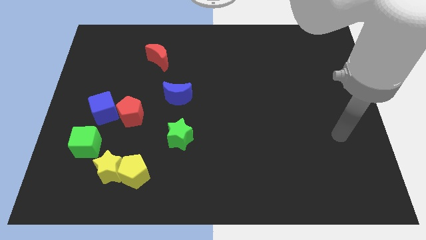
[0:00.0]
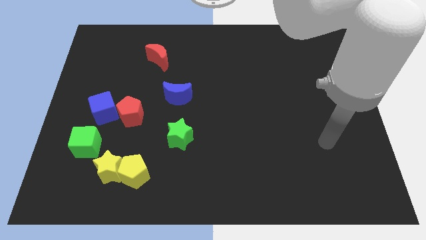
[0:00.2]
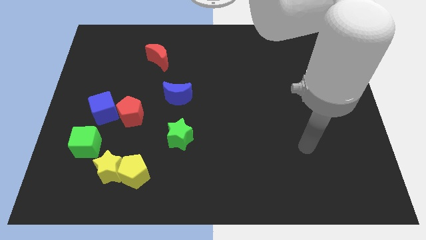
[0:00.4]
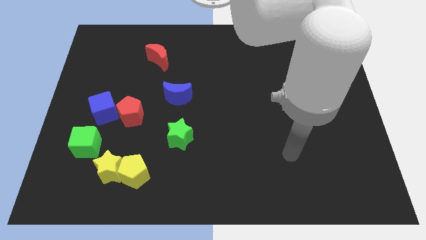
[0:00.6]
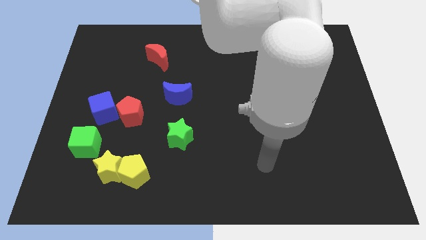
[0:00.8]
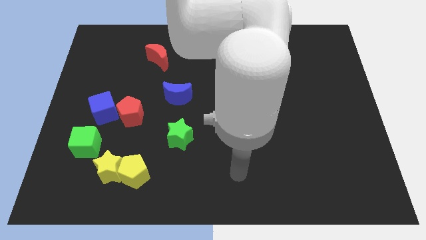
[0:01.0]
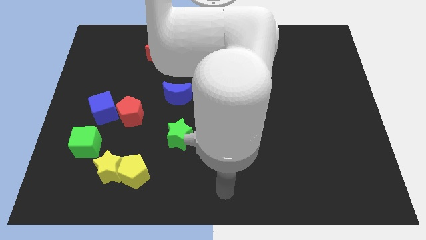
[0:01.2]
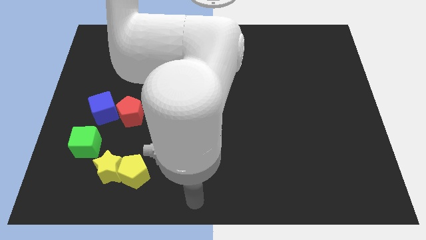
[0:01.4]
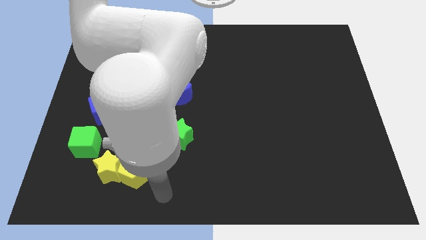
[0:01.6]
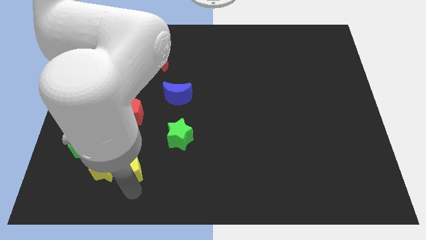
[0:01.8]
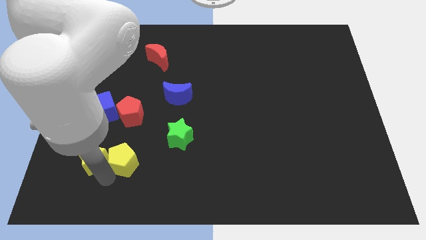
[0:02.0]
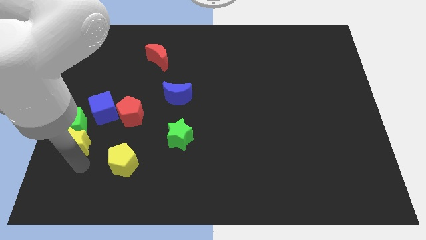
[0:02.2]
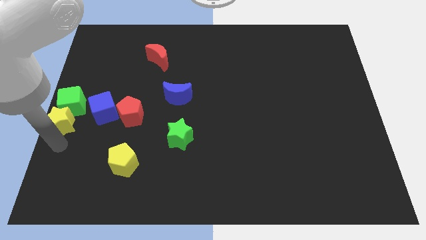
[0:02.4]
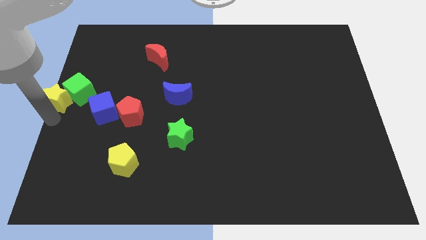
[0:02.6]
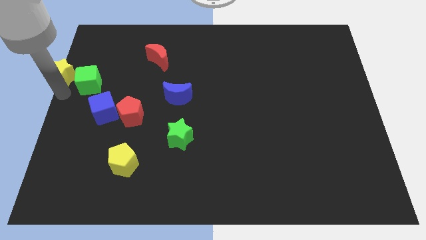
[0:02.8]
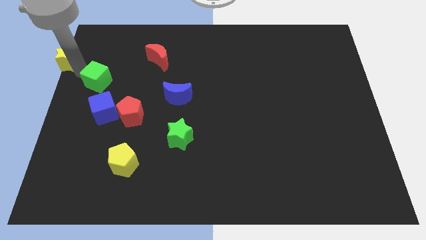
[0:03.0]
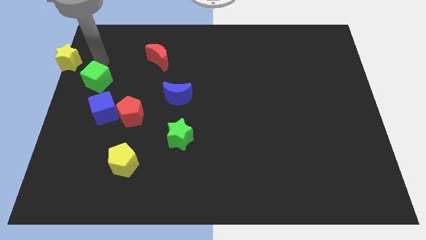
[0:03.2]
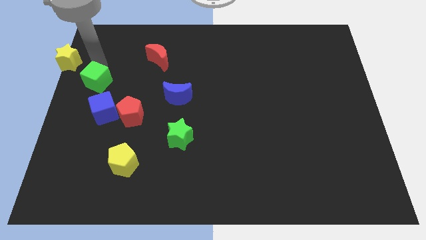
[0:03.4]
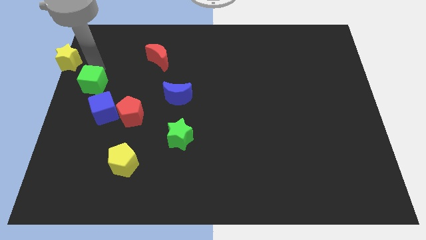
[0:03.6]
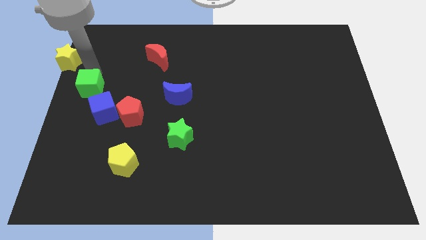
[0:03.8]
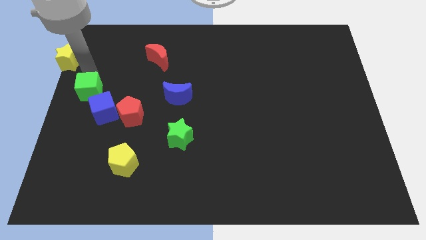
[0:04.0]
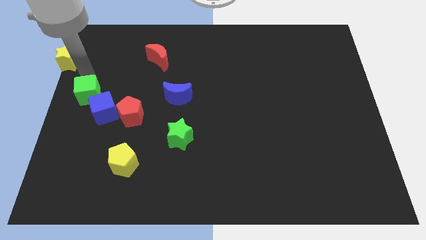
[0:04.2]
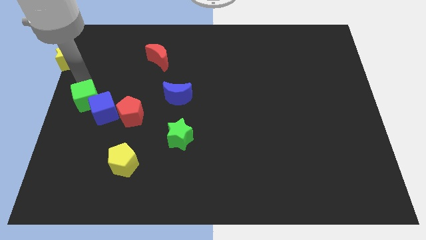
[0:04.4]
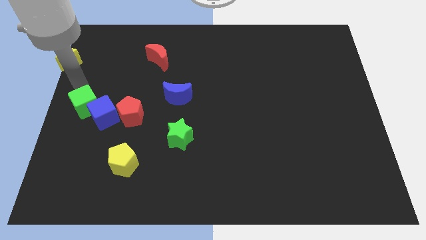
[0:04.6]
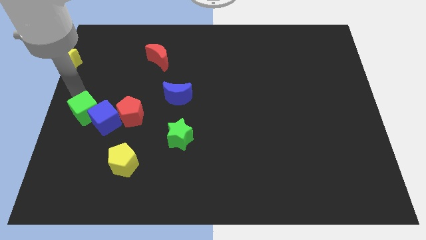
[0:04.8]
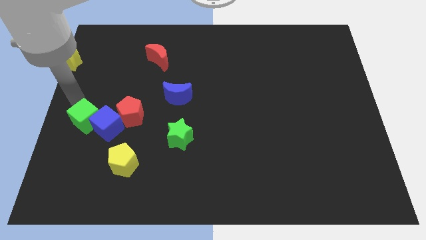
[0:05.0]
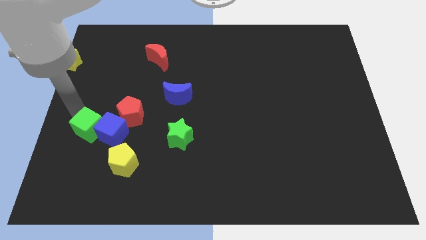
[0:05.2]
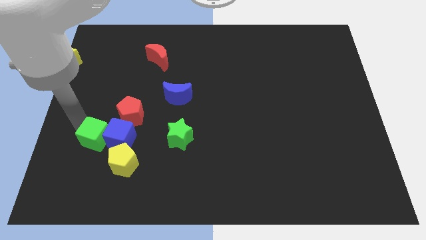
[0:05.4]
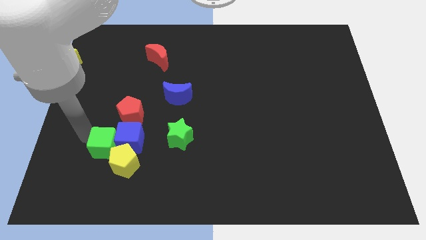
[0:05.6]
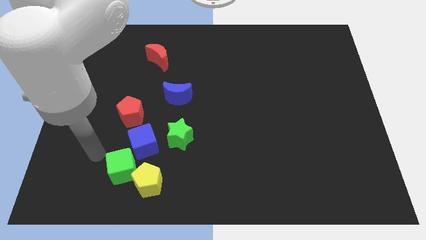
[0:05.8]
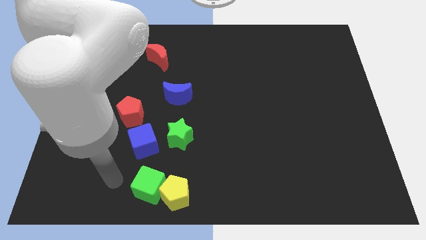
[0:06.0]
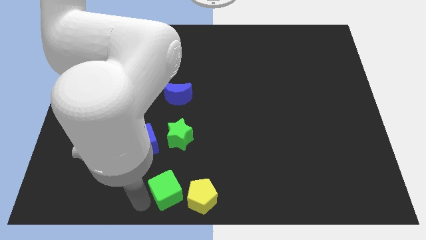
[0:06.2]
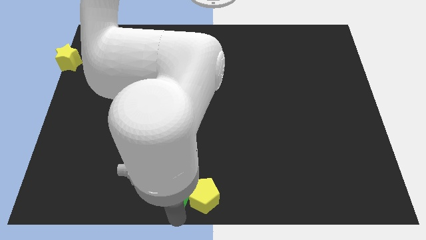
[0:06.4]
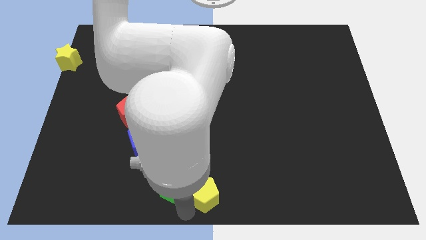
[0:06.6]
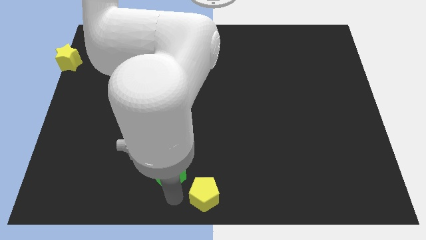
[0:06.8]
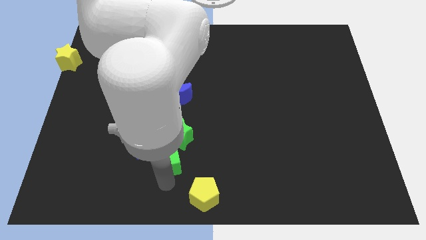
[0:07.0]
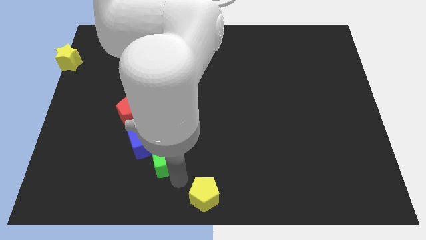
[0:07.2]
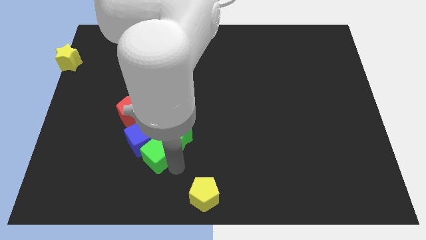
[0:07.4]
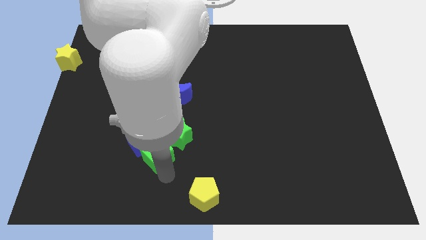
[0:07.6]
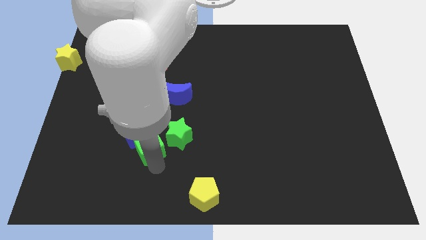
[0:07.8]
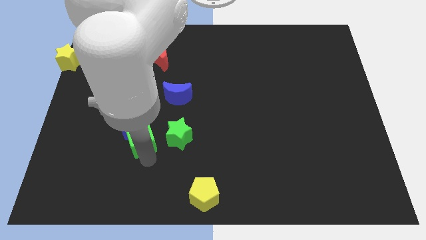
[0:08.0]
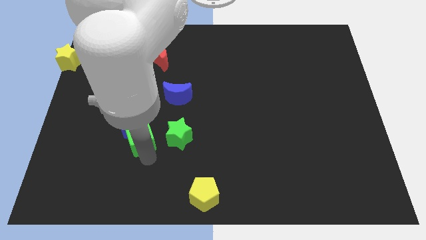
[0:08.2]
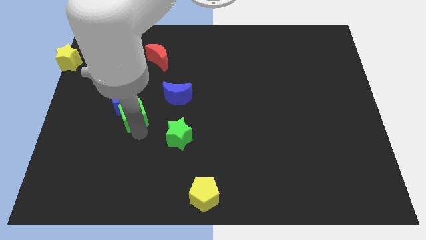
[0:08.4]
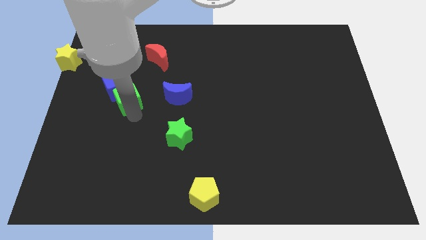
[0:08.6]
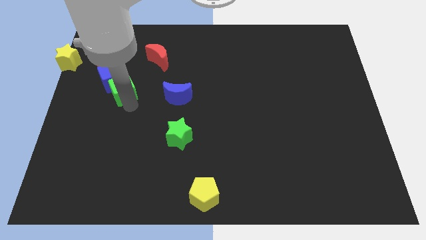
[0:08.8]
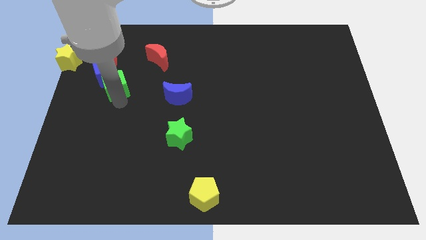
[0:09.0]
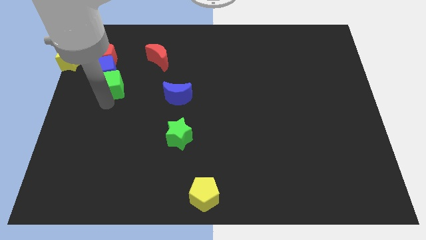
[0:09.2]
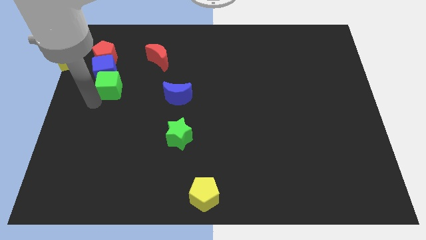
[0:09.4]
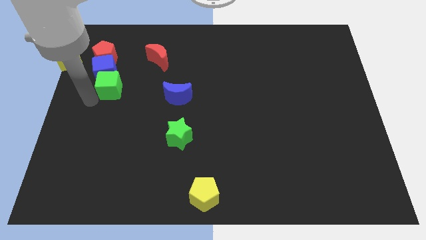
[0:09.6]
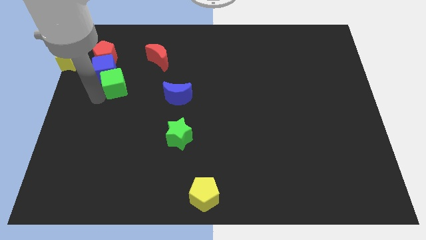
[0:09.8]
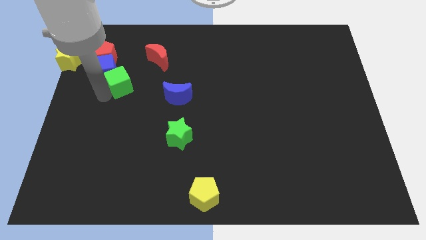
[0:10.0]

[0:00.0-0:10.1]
move the green cube to the bottom left side of the red moon

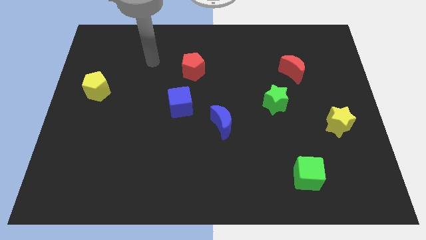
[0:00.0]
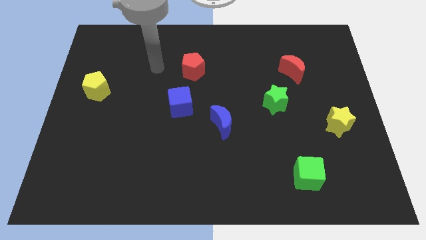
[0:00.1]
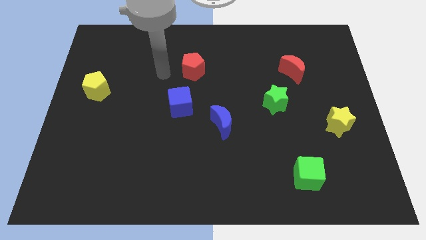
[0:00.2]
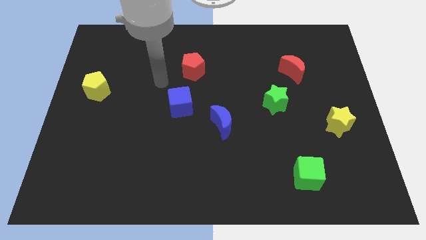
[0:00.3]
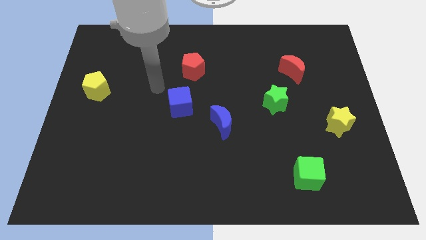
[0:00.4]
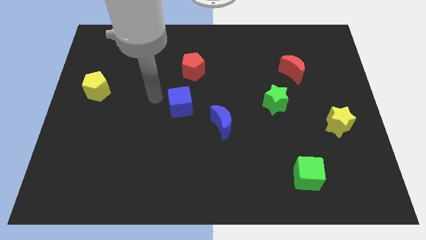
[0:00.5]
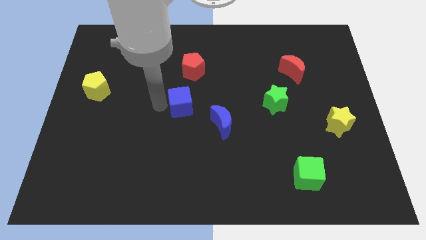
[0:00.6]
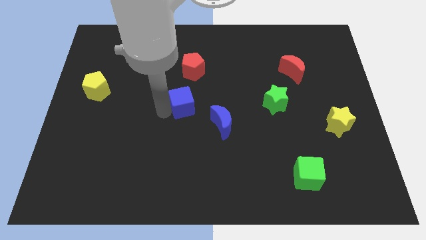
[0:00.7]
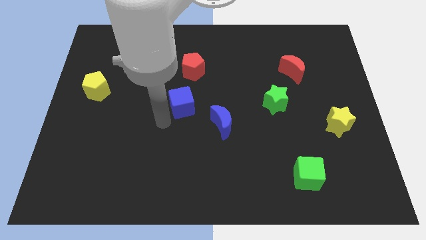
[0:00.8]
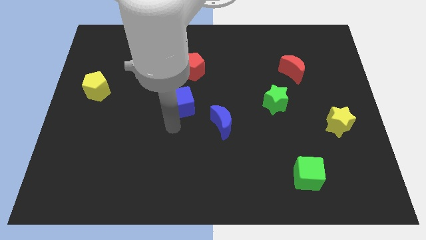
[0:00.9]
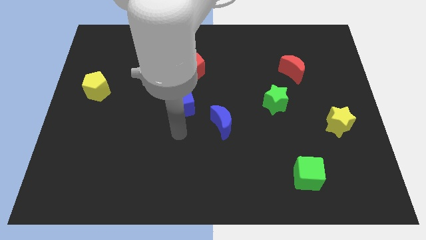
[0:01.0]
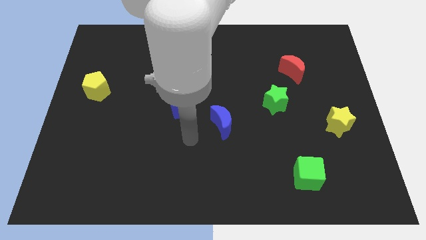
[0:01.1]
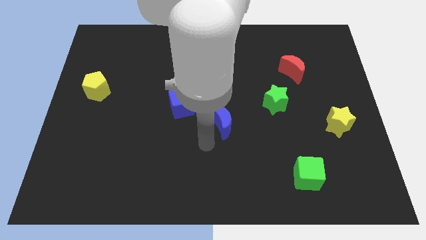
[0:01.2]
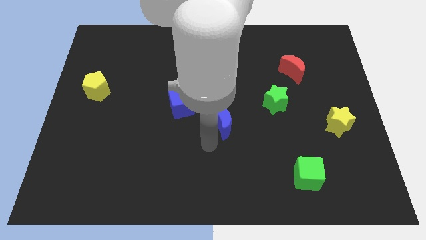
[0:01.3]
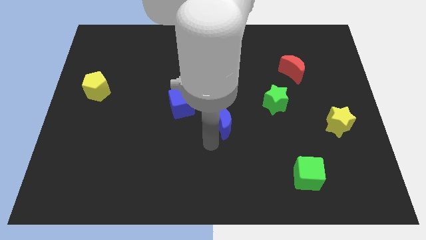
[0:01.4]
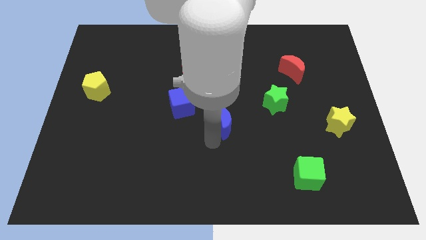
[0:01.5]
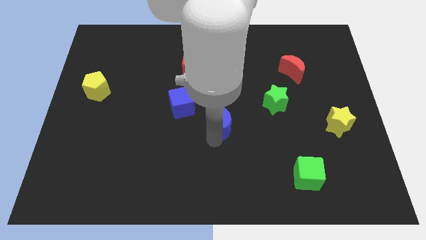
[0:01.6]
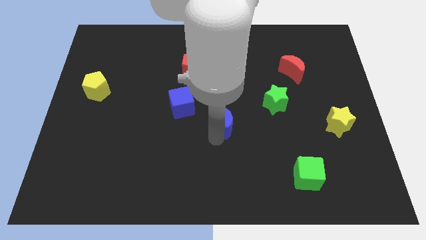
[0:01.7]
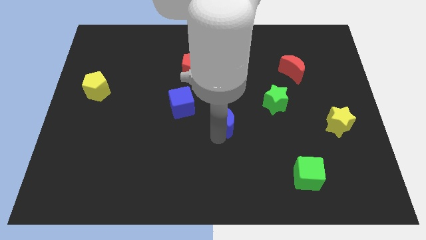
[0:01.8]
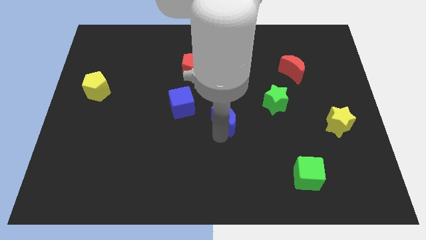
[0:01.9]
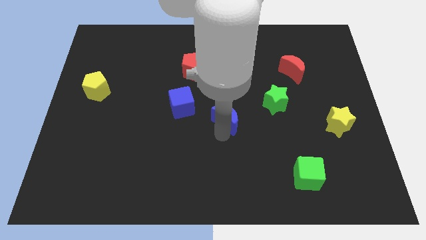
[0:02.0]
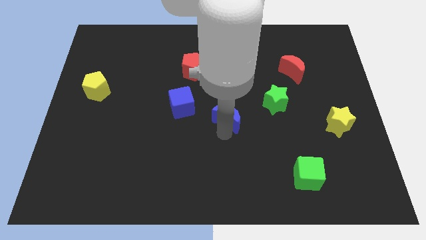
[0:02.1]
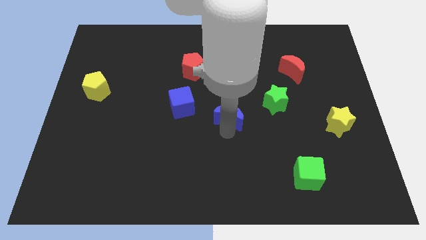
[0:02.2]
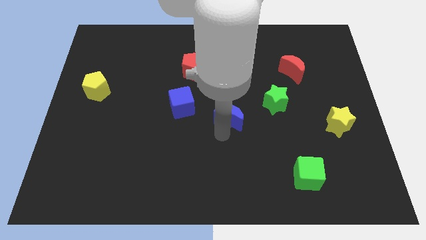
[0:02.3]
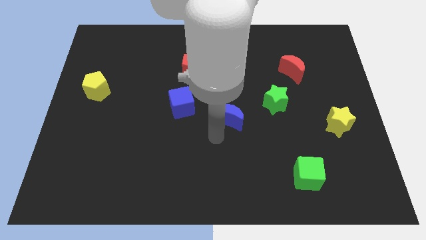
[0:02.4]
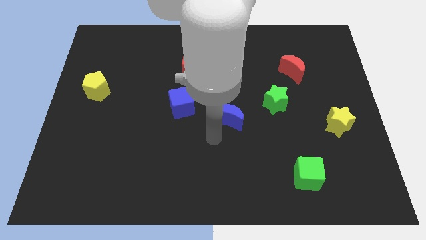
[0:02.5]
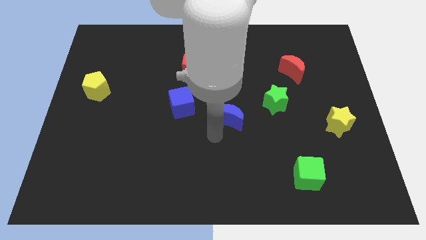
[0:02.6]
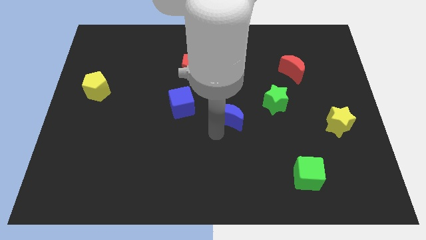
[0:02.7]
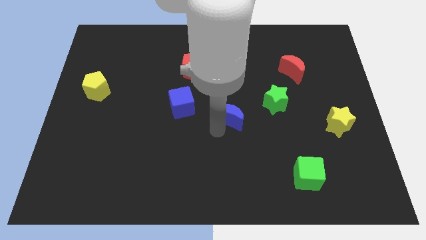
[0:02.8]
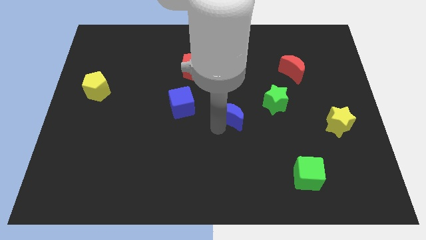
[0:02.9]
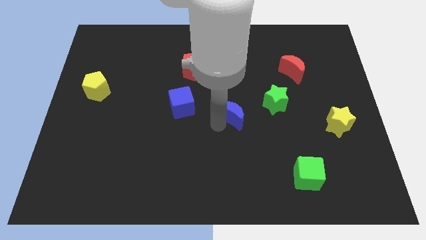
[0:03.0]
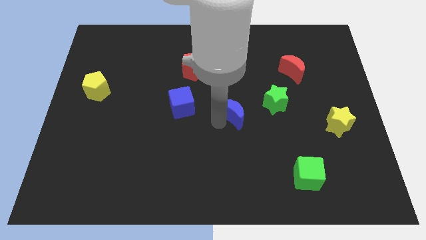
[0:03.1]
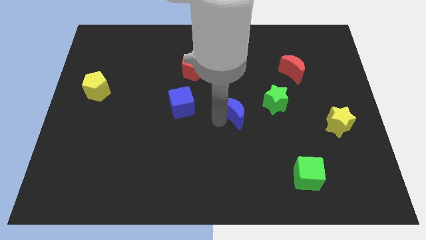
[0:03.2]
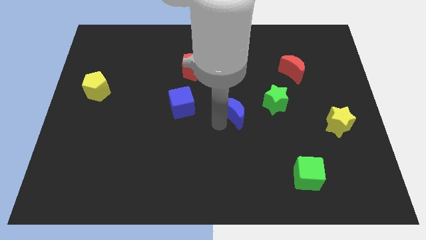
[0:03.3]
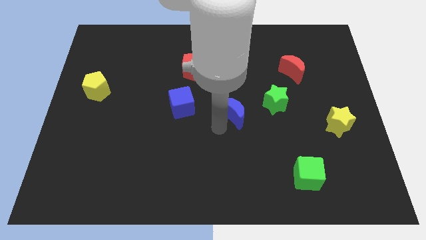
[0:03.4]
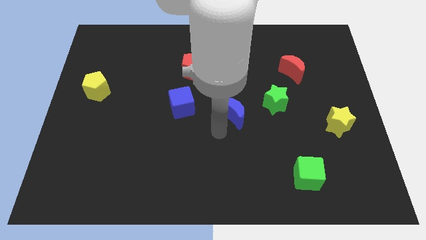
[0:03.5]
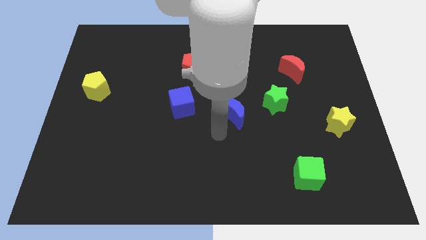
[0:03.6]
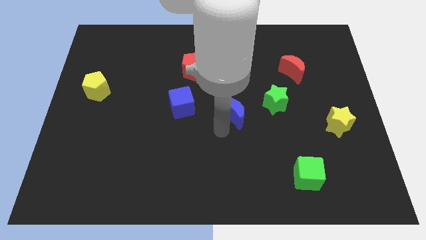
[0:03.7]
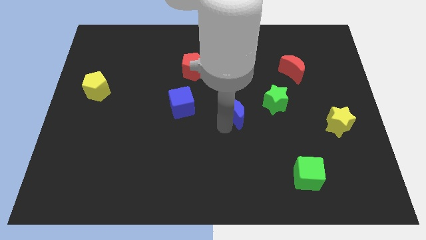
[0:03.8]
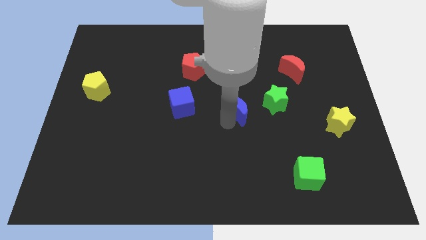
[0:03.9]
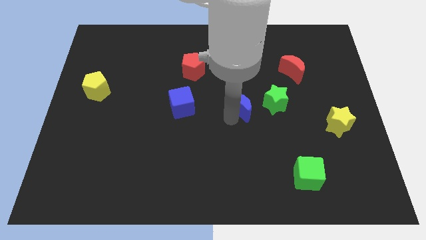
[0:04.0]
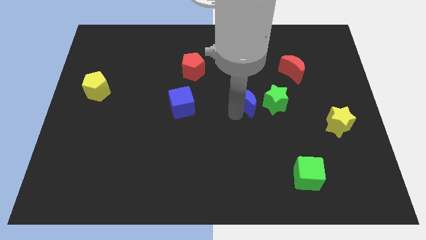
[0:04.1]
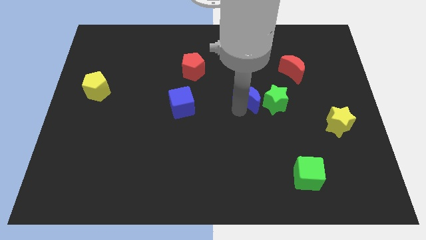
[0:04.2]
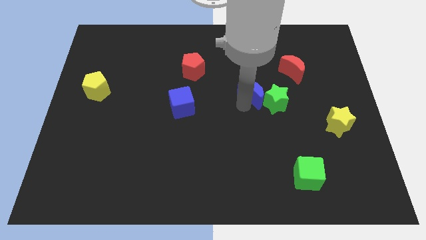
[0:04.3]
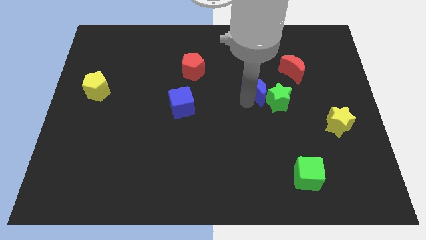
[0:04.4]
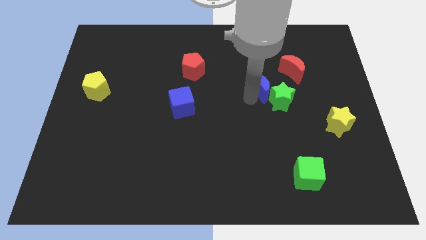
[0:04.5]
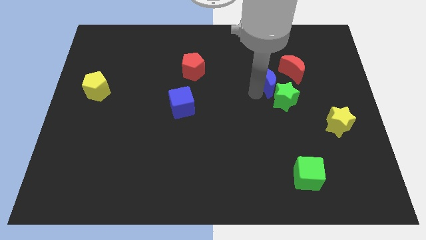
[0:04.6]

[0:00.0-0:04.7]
move the blue moon to the top of the green star
